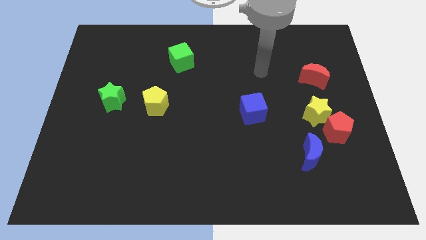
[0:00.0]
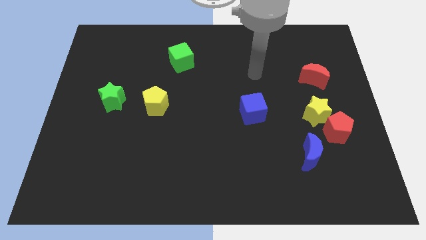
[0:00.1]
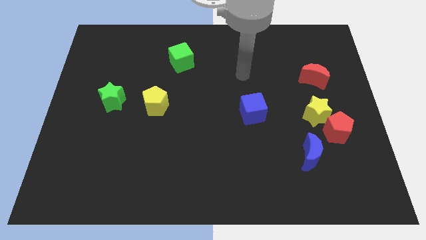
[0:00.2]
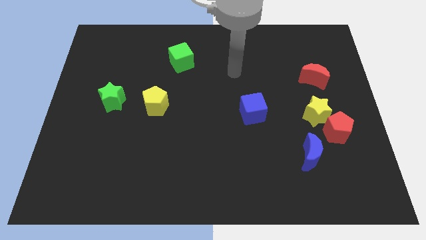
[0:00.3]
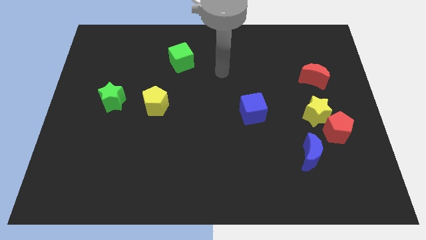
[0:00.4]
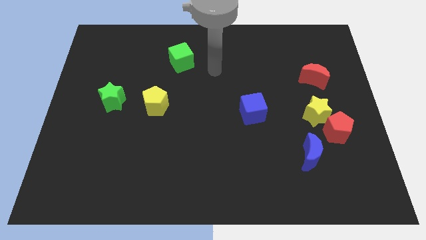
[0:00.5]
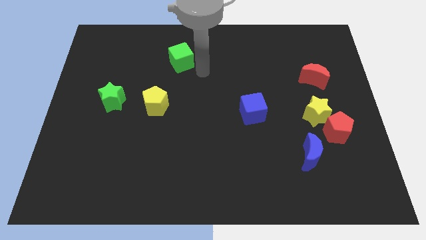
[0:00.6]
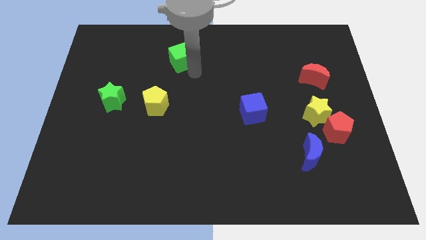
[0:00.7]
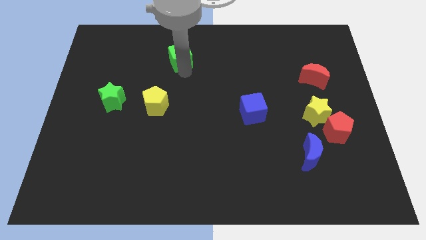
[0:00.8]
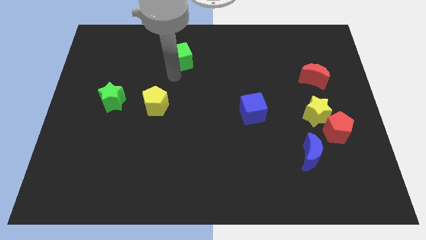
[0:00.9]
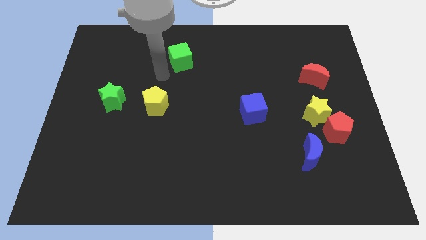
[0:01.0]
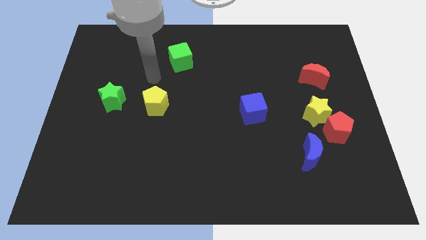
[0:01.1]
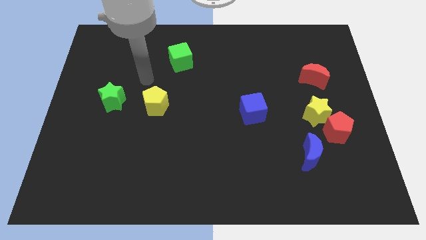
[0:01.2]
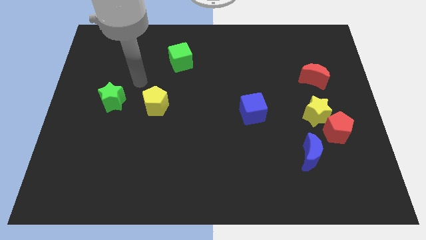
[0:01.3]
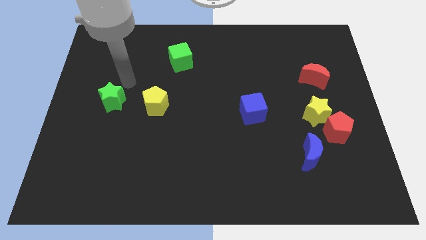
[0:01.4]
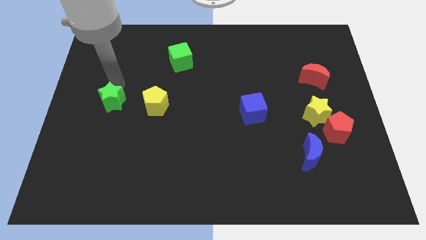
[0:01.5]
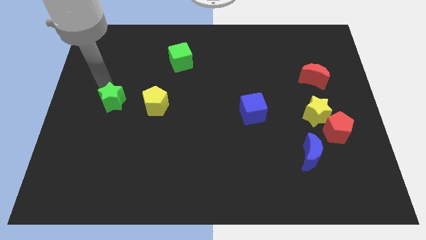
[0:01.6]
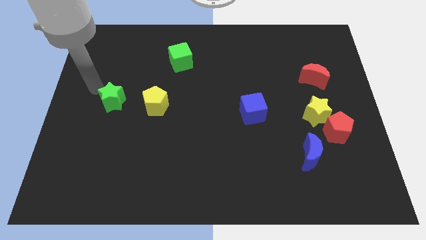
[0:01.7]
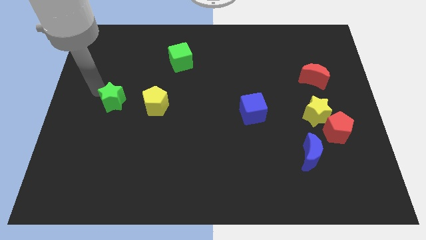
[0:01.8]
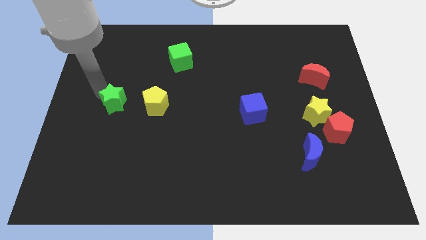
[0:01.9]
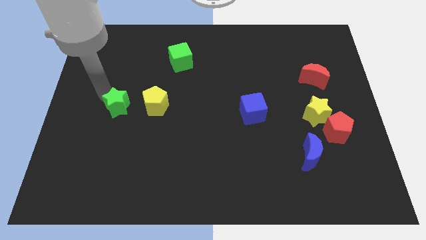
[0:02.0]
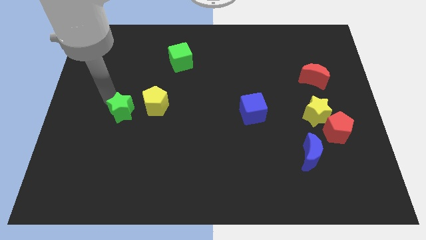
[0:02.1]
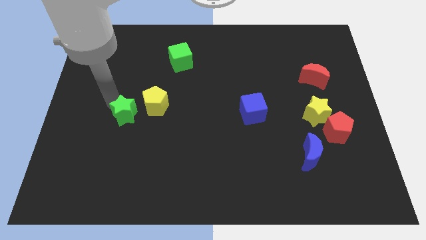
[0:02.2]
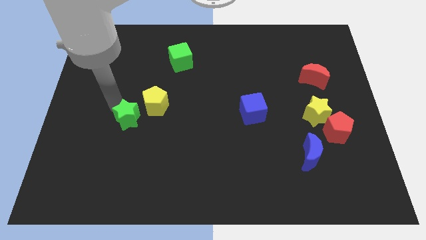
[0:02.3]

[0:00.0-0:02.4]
slightly push the green star down and right

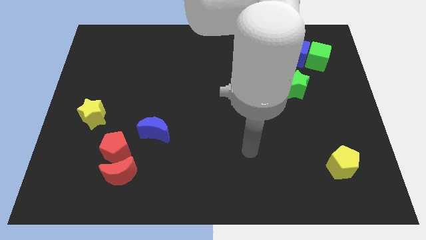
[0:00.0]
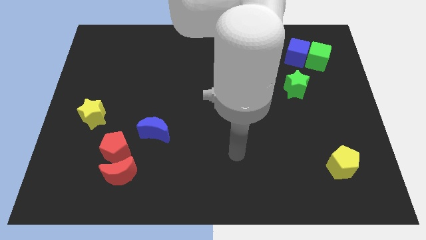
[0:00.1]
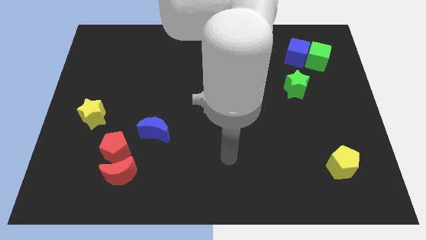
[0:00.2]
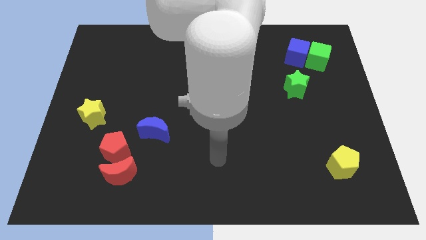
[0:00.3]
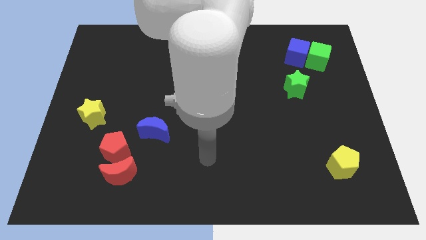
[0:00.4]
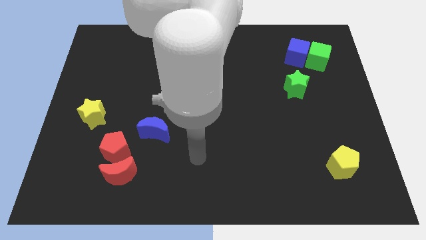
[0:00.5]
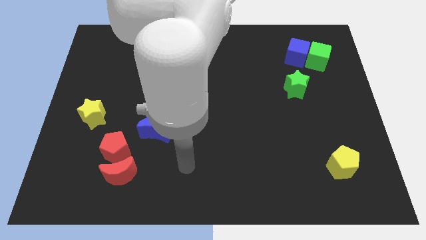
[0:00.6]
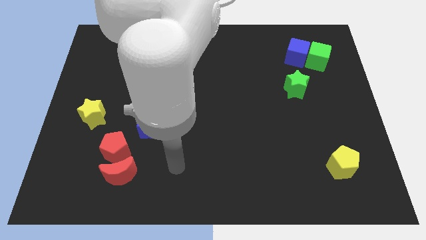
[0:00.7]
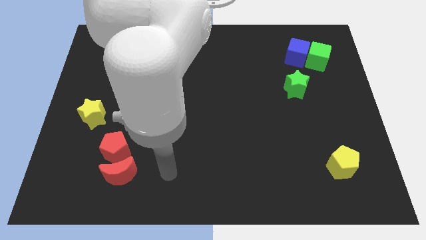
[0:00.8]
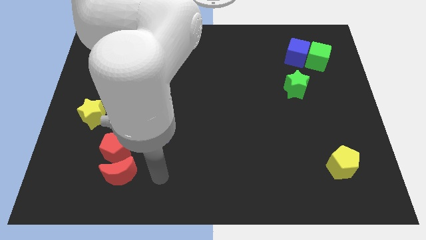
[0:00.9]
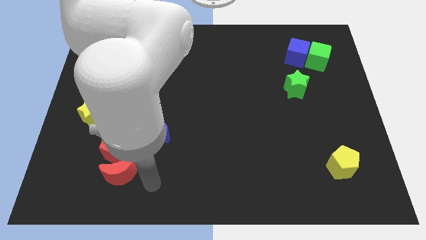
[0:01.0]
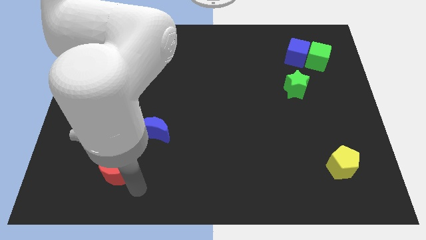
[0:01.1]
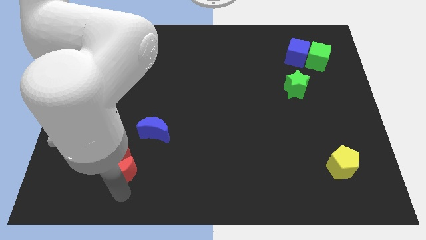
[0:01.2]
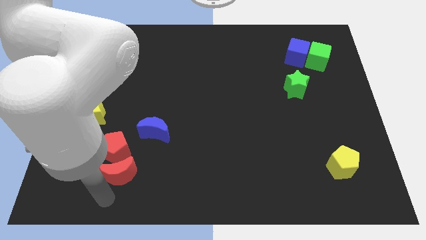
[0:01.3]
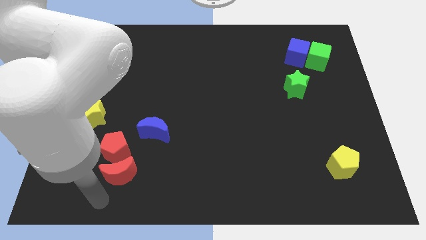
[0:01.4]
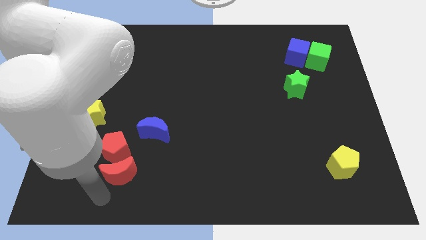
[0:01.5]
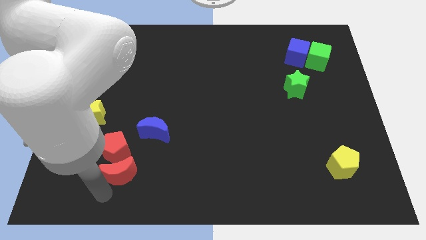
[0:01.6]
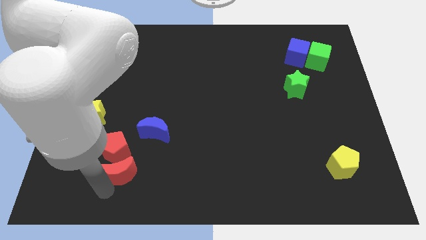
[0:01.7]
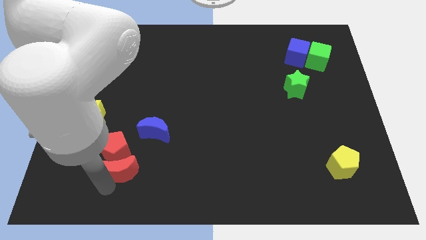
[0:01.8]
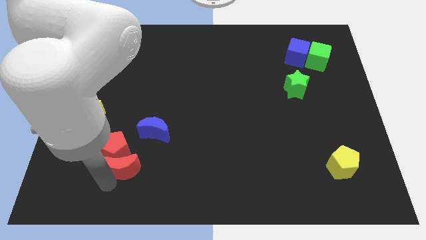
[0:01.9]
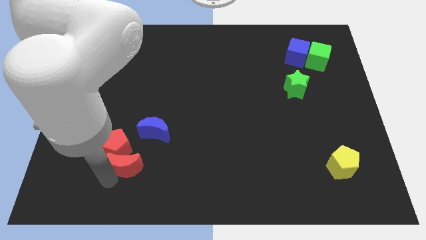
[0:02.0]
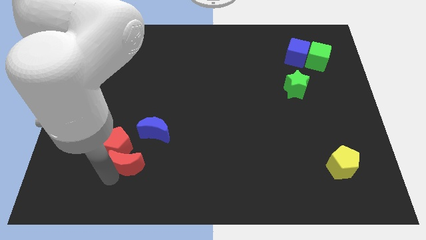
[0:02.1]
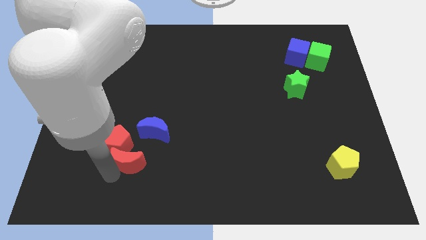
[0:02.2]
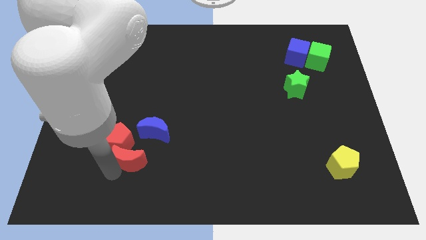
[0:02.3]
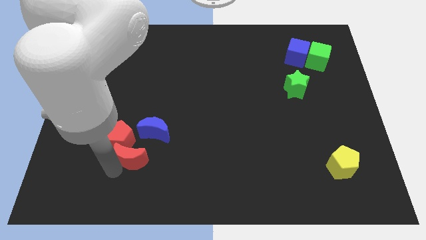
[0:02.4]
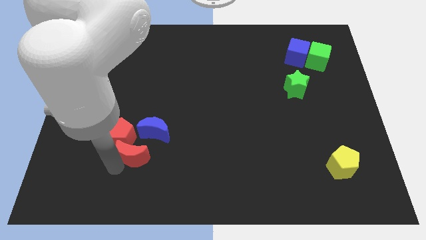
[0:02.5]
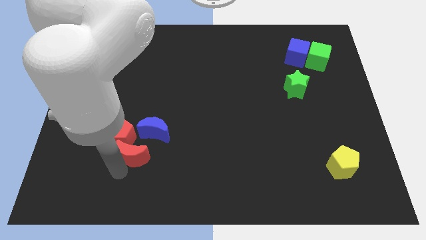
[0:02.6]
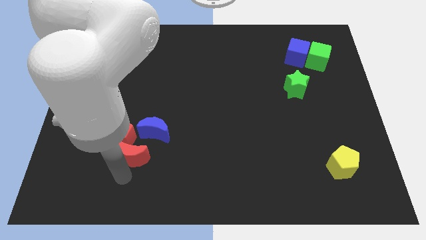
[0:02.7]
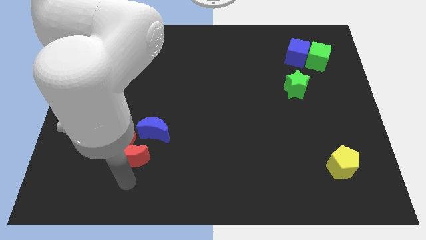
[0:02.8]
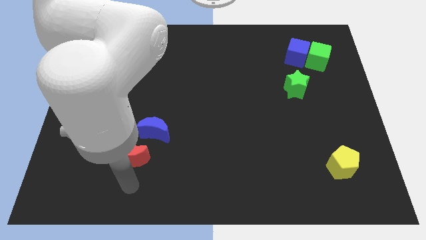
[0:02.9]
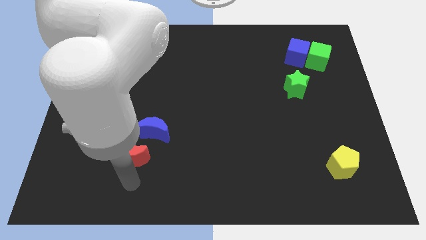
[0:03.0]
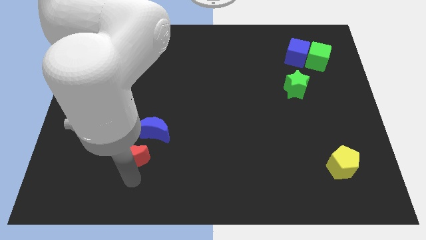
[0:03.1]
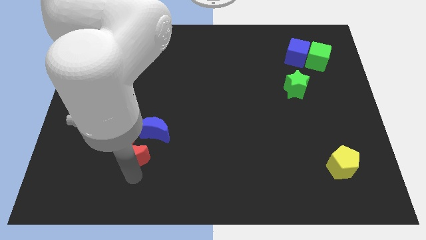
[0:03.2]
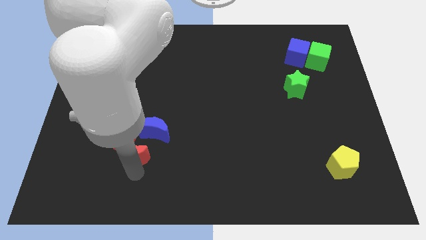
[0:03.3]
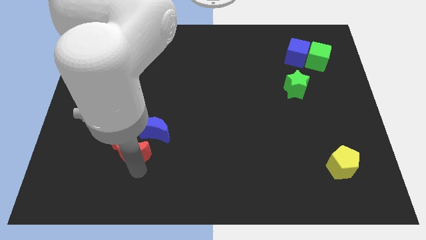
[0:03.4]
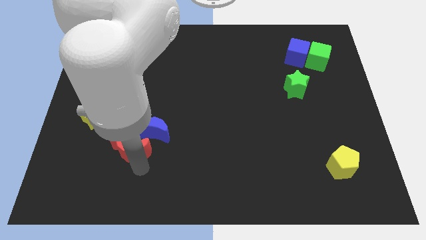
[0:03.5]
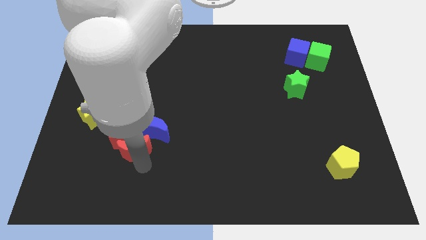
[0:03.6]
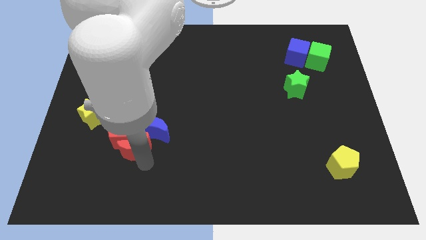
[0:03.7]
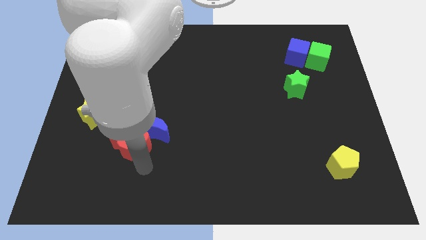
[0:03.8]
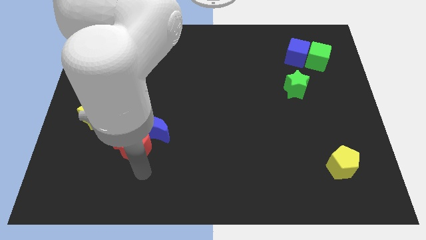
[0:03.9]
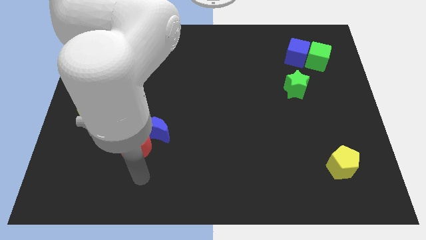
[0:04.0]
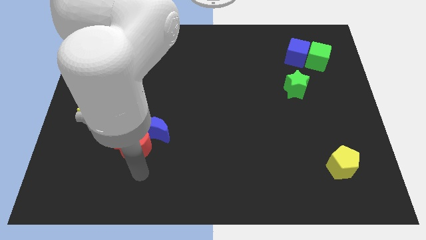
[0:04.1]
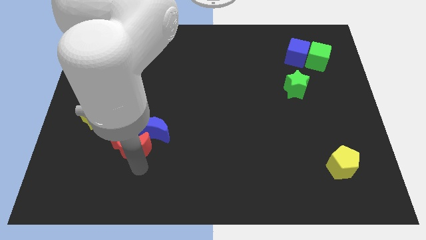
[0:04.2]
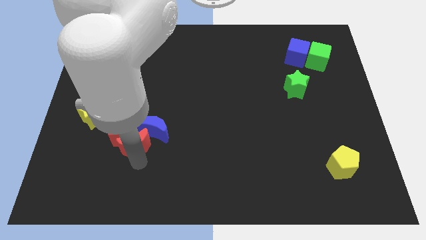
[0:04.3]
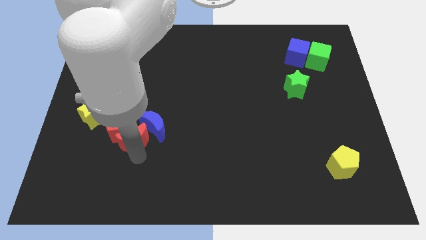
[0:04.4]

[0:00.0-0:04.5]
slide the red moon somewhat up

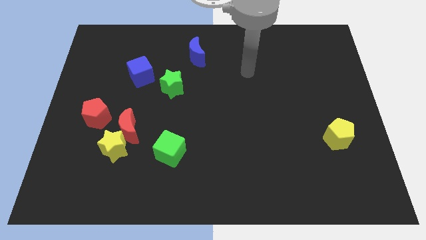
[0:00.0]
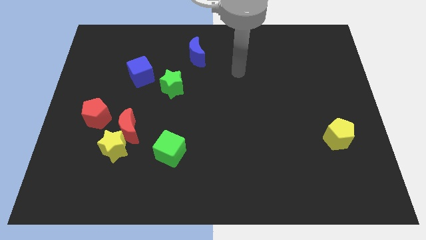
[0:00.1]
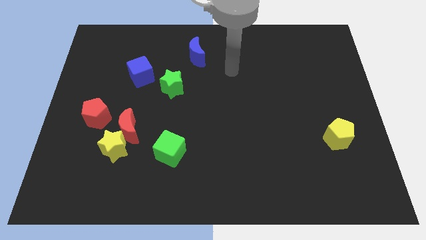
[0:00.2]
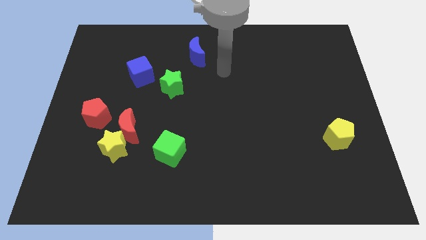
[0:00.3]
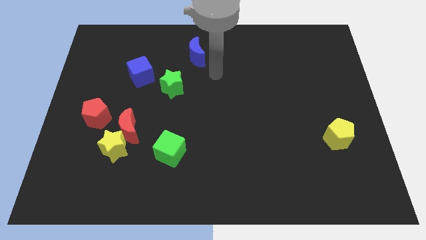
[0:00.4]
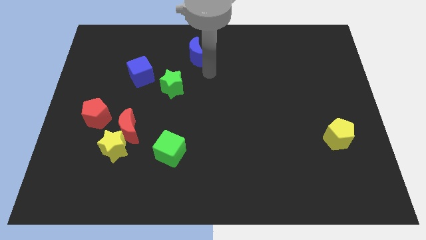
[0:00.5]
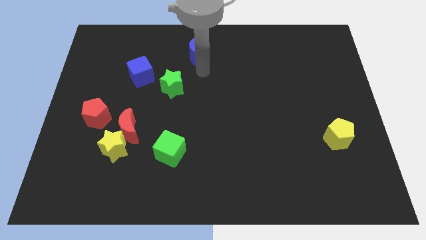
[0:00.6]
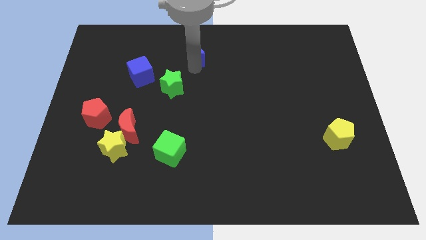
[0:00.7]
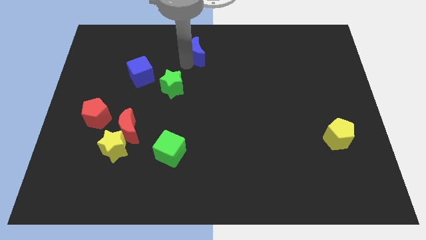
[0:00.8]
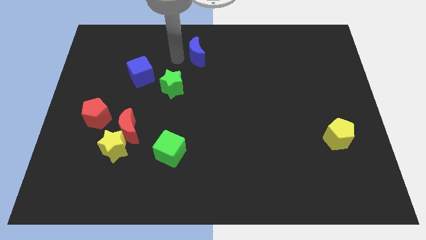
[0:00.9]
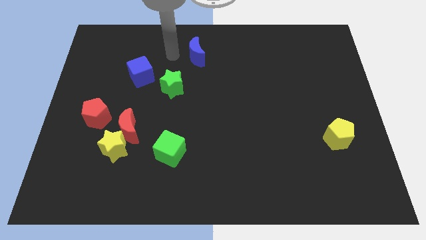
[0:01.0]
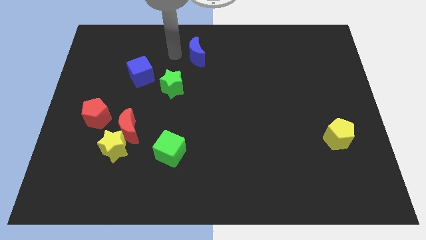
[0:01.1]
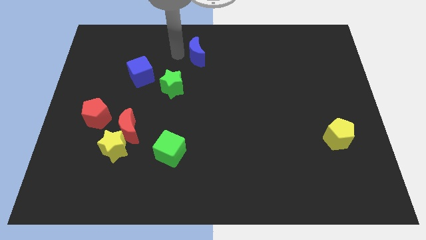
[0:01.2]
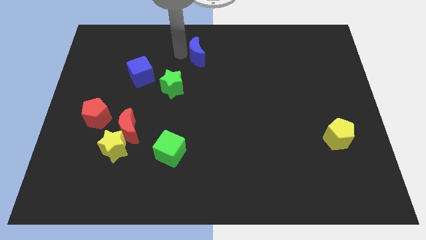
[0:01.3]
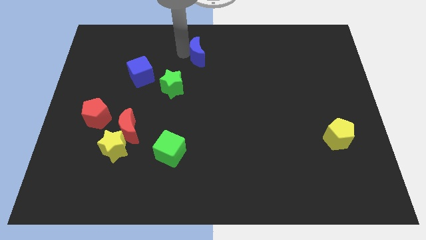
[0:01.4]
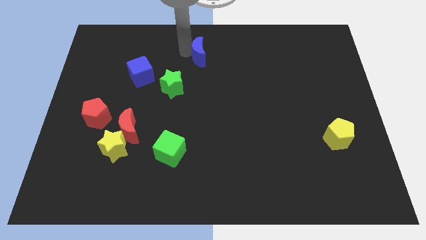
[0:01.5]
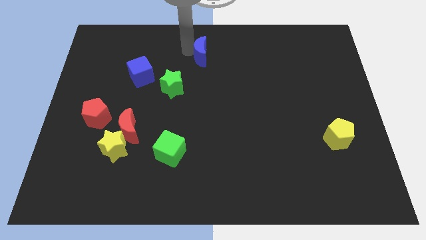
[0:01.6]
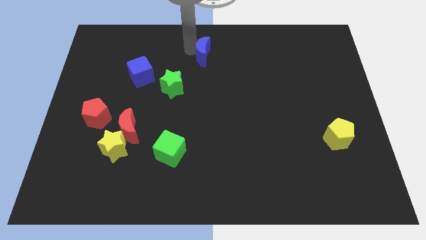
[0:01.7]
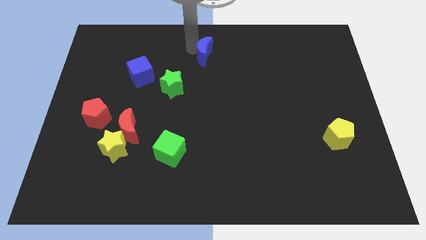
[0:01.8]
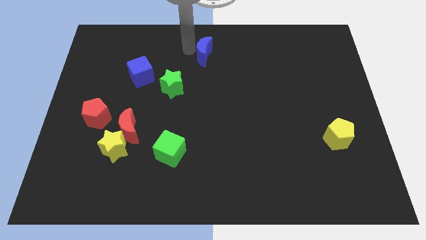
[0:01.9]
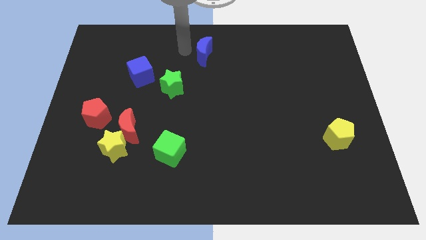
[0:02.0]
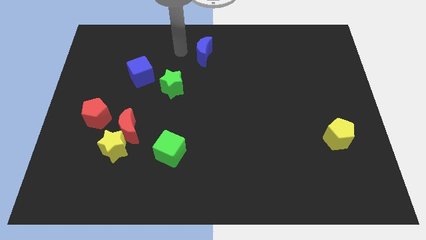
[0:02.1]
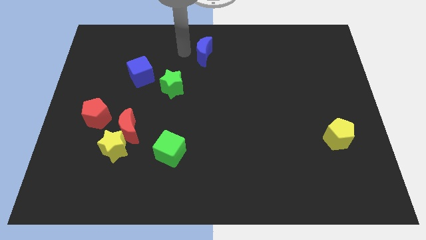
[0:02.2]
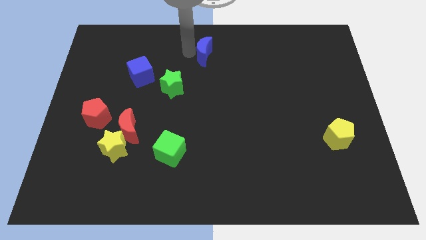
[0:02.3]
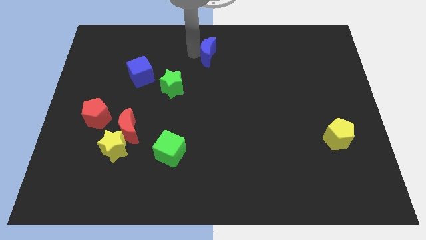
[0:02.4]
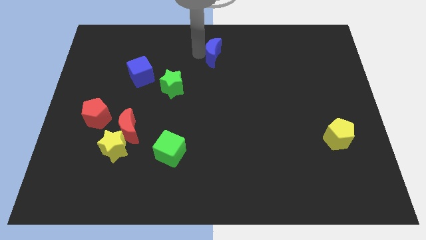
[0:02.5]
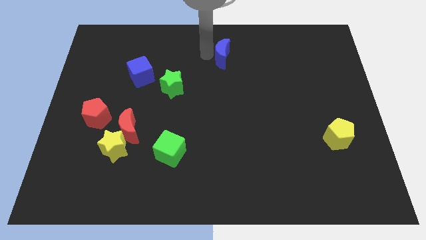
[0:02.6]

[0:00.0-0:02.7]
slightly move the blue moon right
